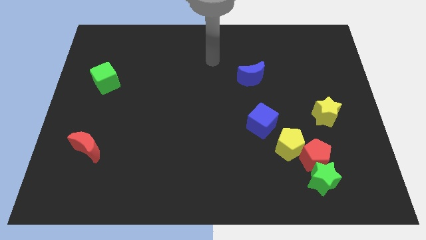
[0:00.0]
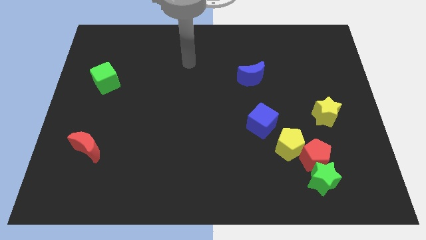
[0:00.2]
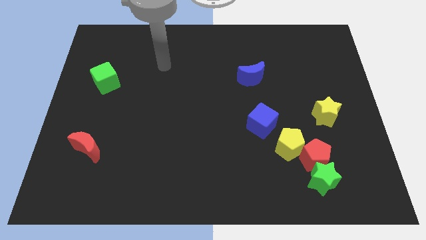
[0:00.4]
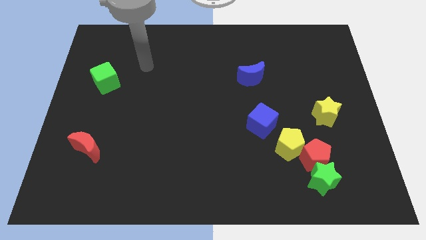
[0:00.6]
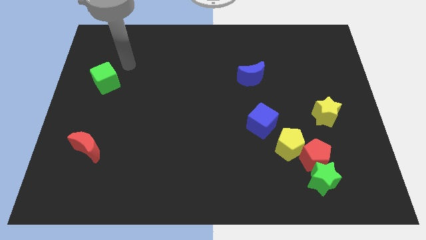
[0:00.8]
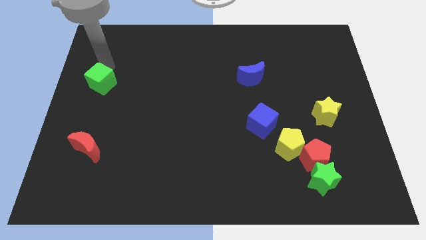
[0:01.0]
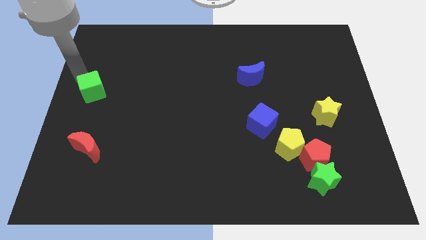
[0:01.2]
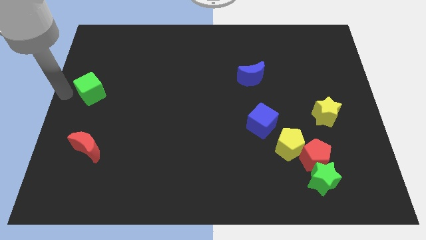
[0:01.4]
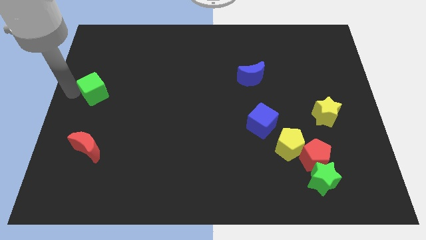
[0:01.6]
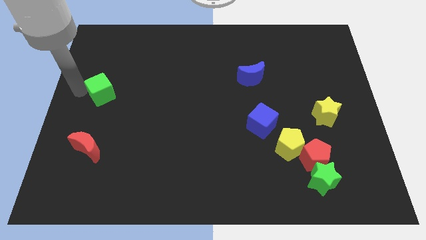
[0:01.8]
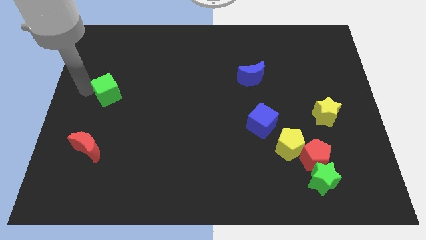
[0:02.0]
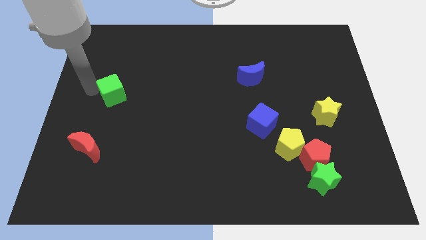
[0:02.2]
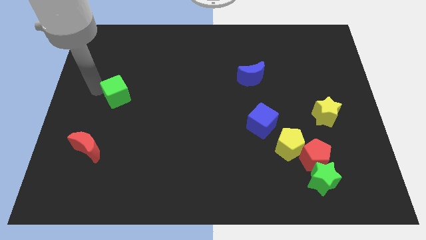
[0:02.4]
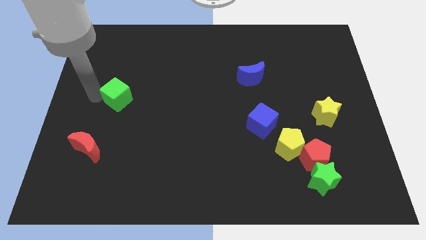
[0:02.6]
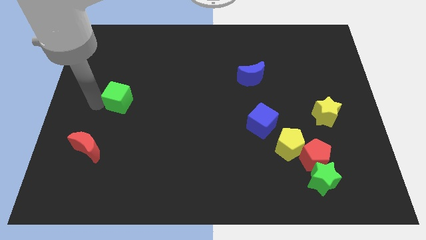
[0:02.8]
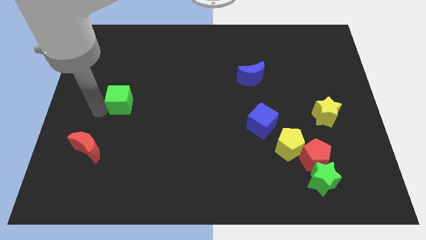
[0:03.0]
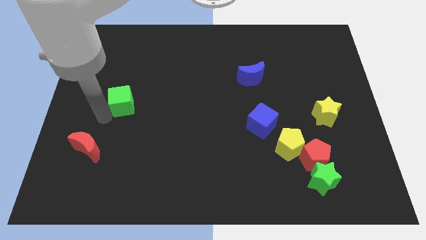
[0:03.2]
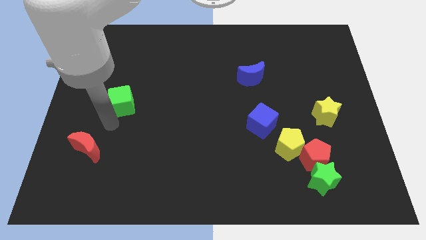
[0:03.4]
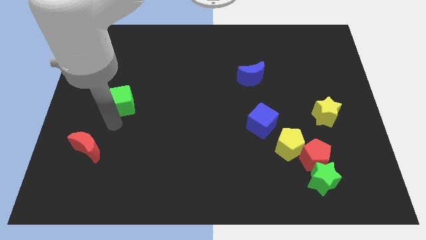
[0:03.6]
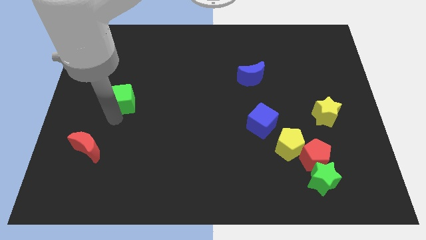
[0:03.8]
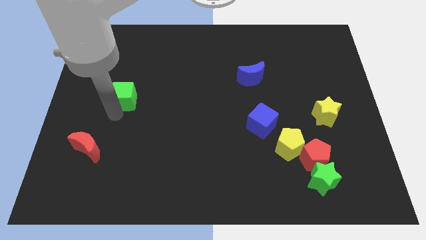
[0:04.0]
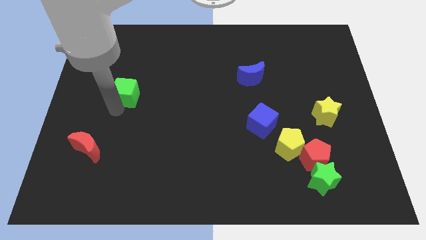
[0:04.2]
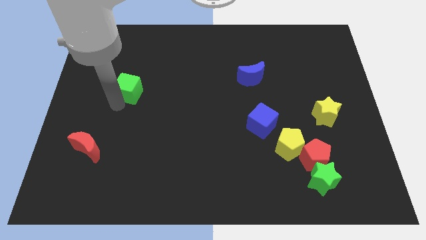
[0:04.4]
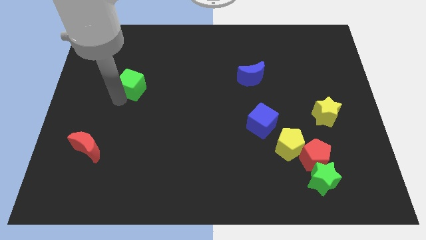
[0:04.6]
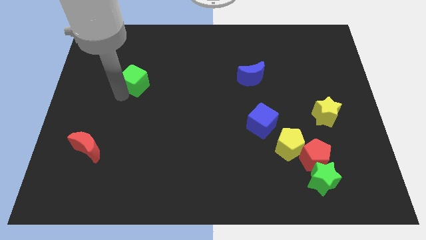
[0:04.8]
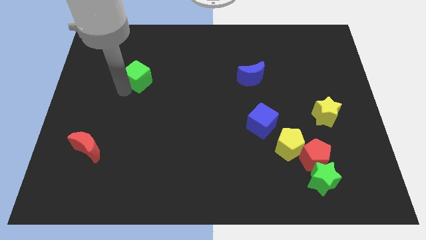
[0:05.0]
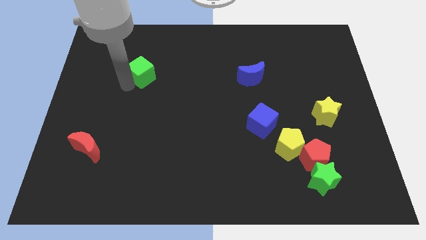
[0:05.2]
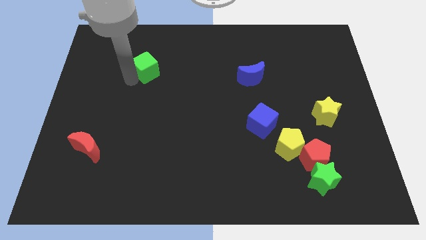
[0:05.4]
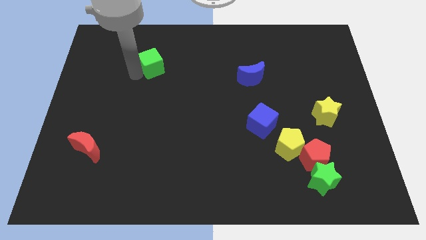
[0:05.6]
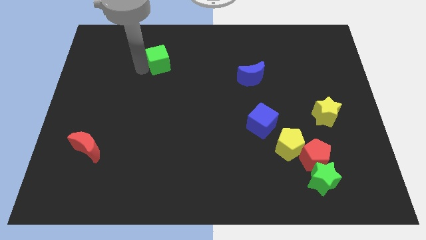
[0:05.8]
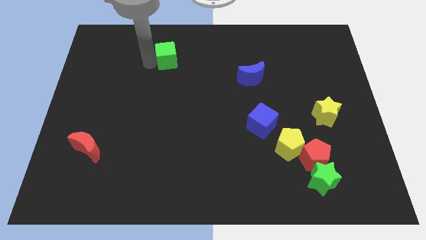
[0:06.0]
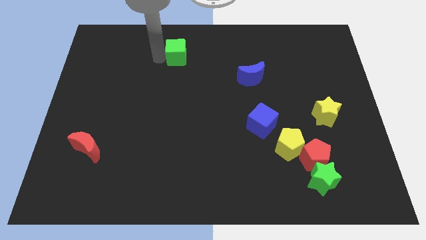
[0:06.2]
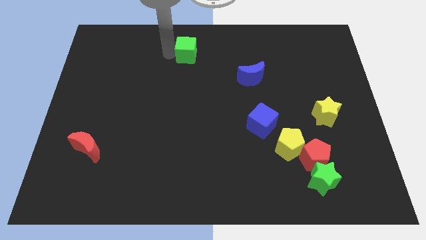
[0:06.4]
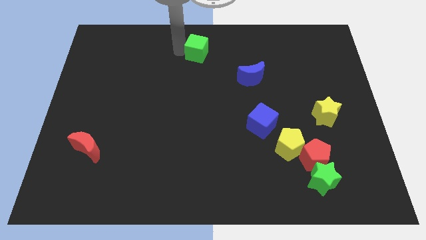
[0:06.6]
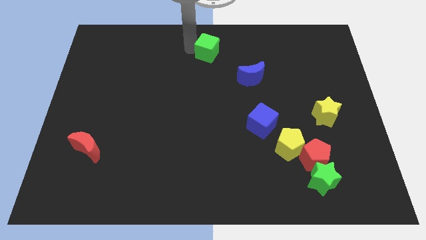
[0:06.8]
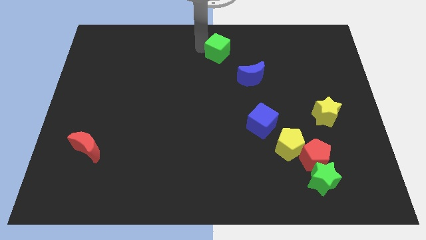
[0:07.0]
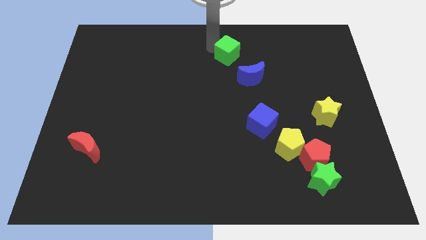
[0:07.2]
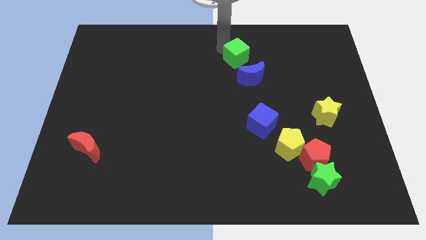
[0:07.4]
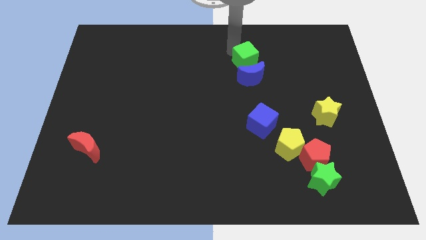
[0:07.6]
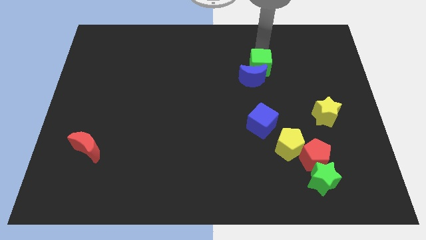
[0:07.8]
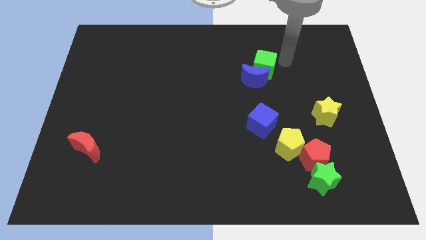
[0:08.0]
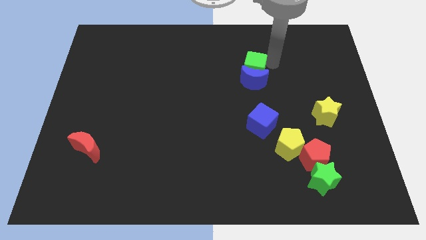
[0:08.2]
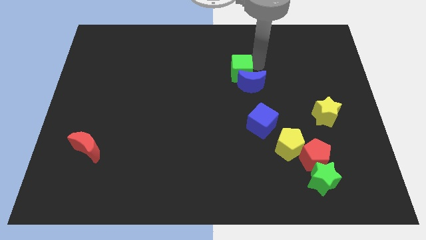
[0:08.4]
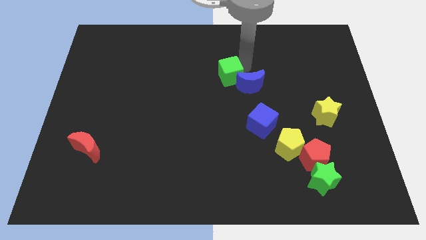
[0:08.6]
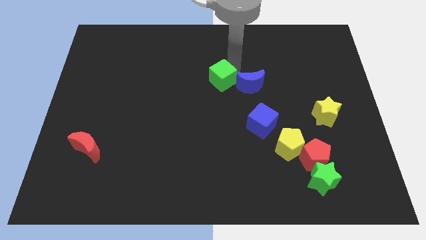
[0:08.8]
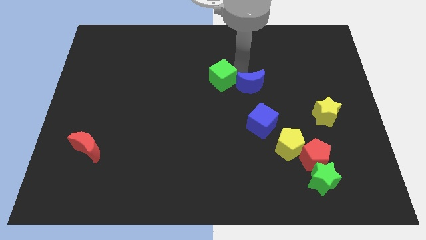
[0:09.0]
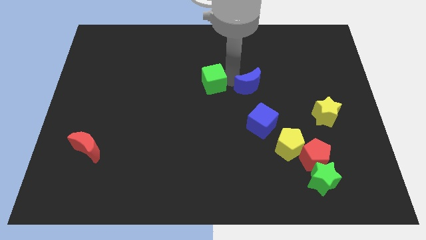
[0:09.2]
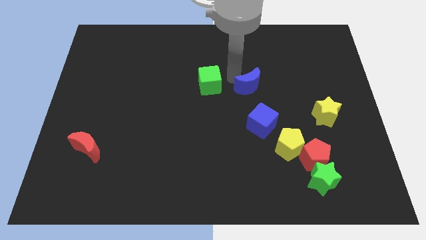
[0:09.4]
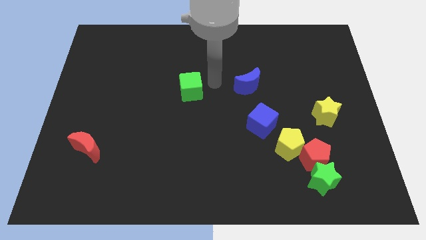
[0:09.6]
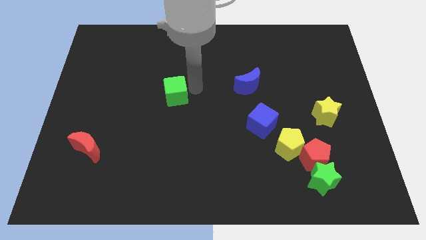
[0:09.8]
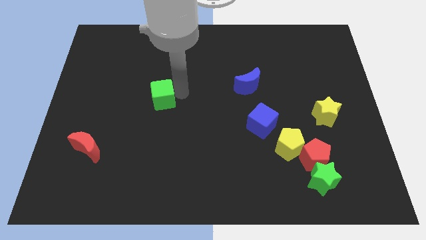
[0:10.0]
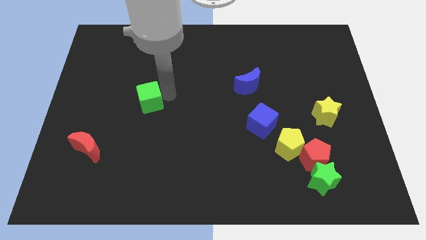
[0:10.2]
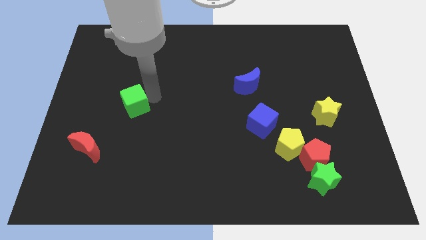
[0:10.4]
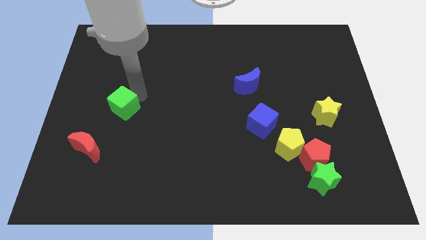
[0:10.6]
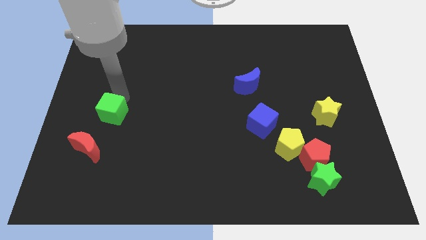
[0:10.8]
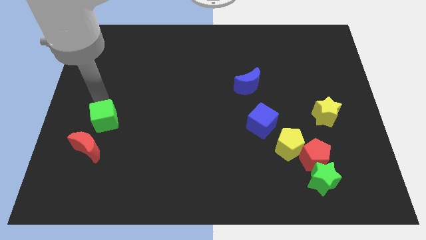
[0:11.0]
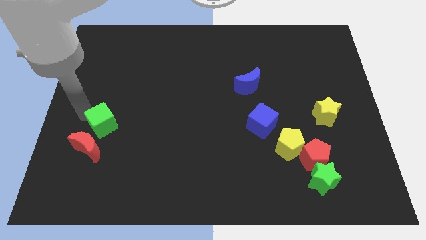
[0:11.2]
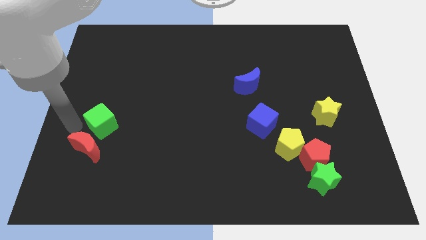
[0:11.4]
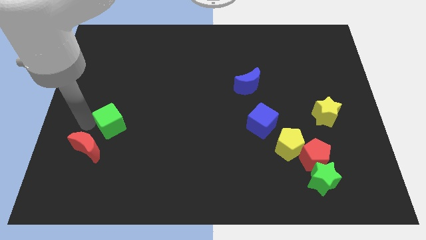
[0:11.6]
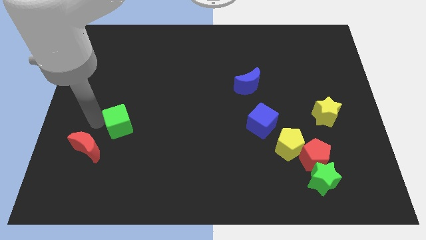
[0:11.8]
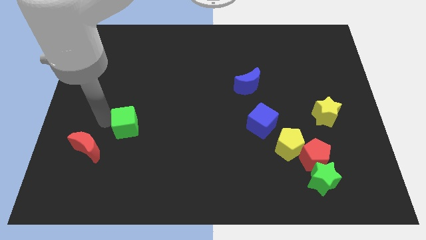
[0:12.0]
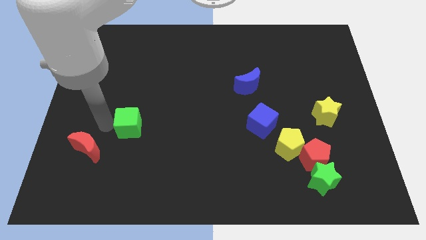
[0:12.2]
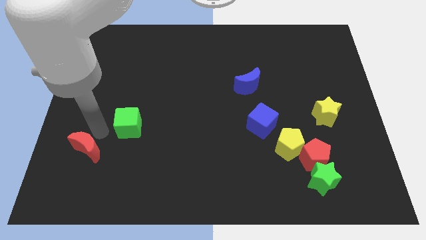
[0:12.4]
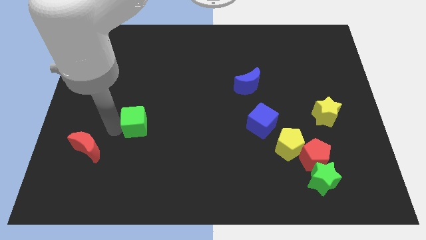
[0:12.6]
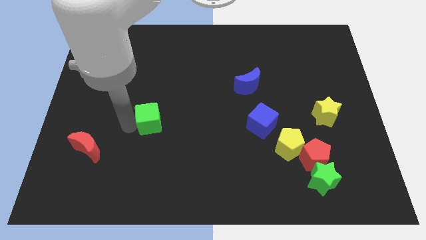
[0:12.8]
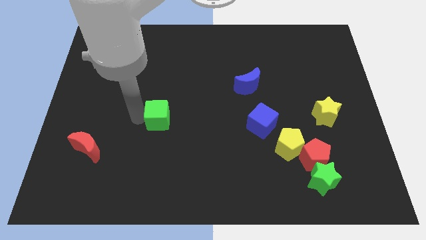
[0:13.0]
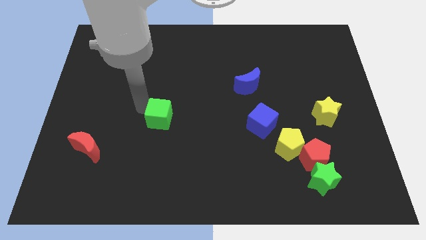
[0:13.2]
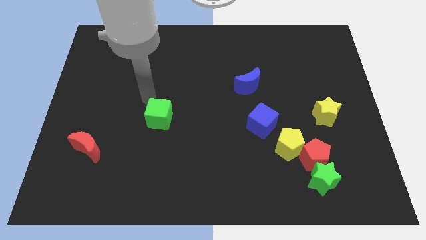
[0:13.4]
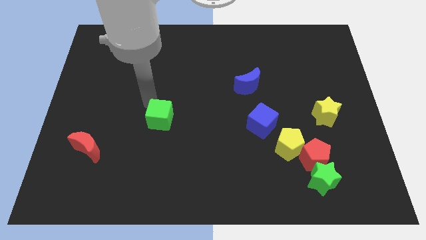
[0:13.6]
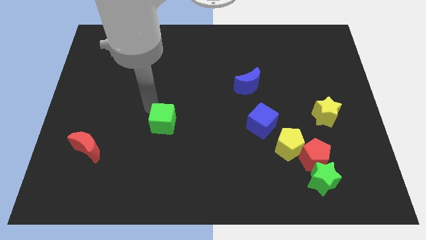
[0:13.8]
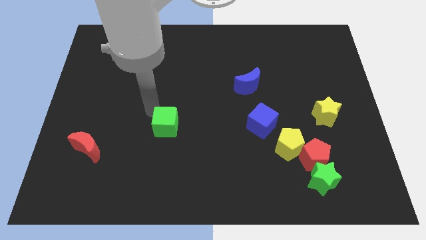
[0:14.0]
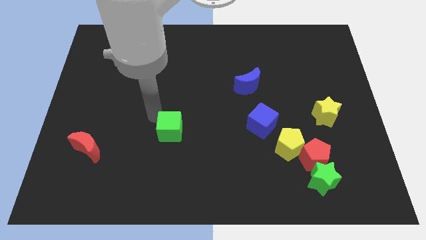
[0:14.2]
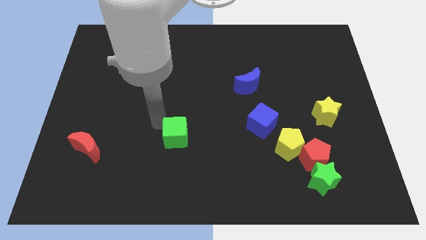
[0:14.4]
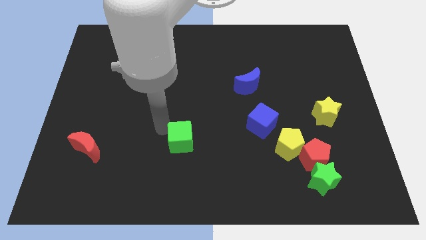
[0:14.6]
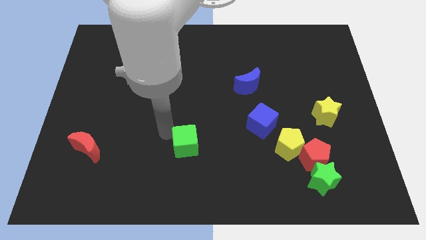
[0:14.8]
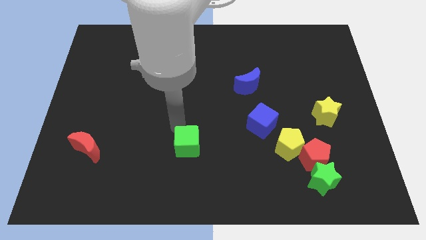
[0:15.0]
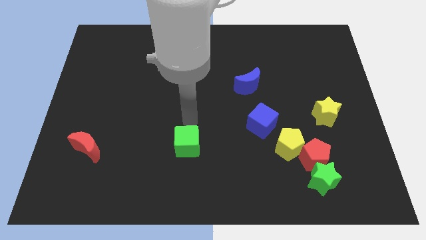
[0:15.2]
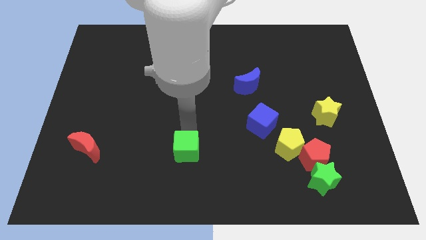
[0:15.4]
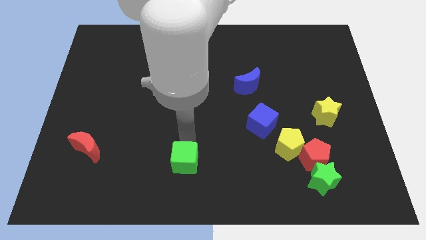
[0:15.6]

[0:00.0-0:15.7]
put the green cube to the bottom side
